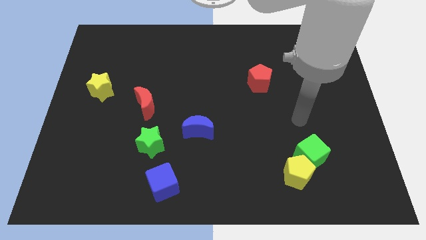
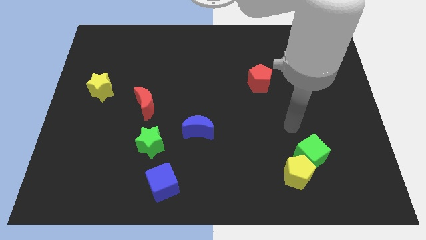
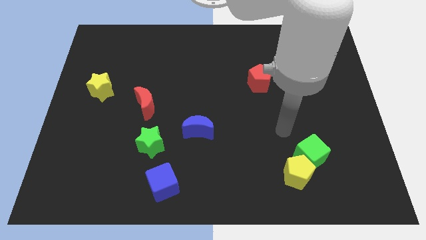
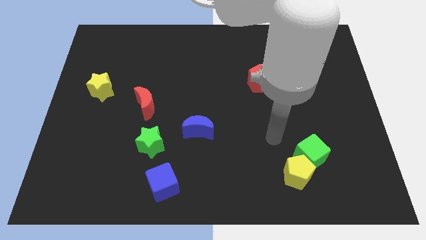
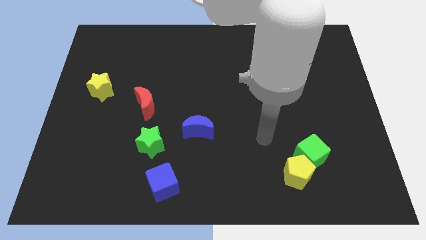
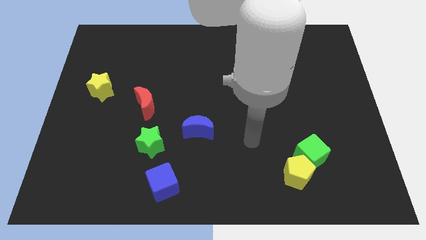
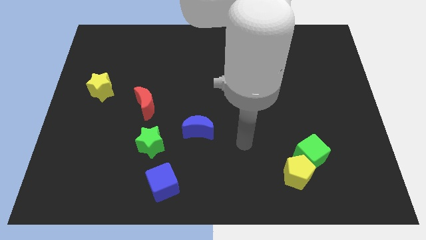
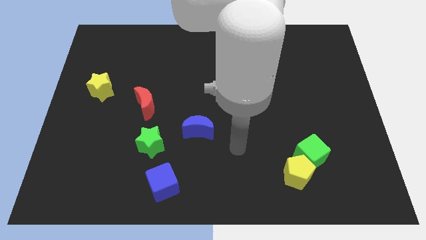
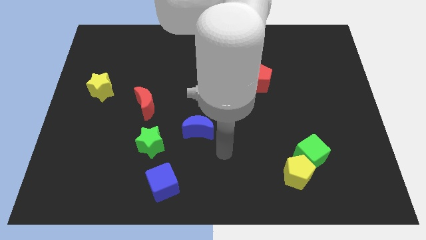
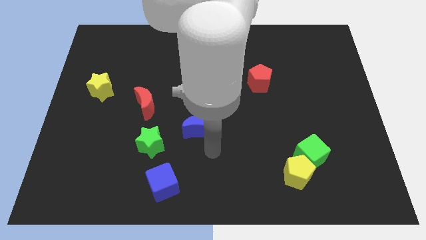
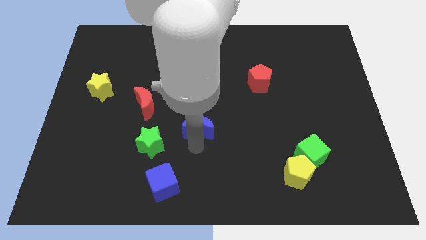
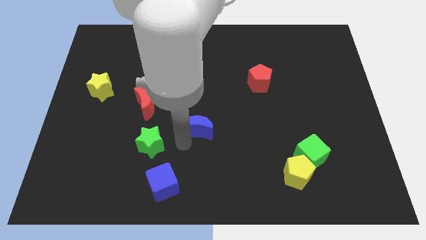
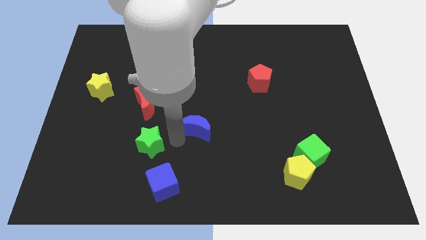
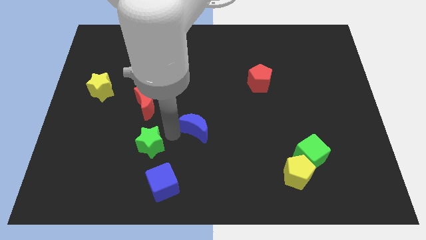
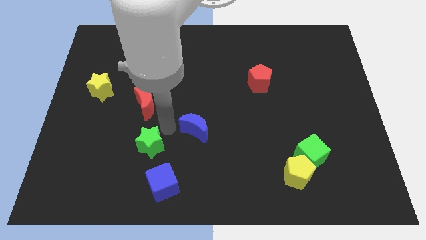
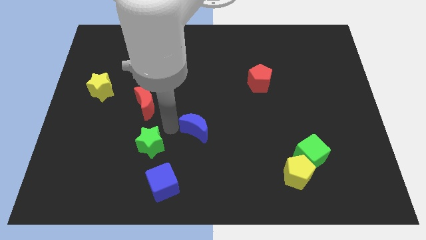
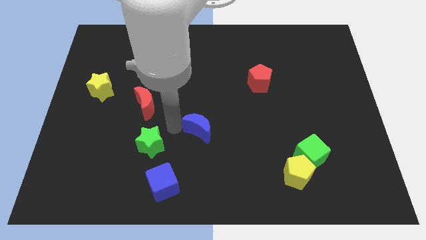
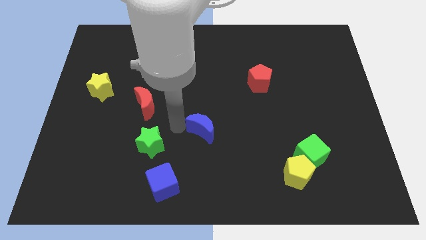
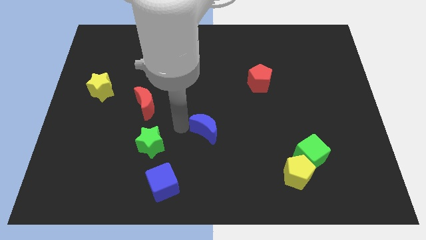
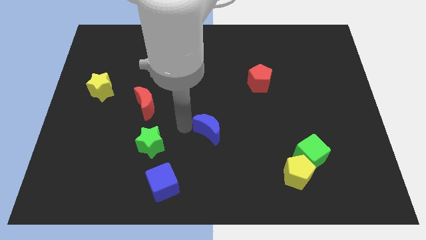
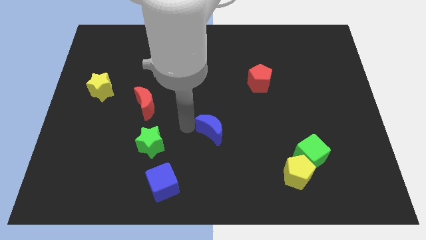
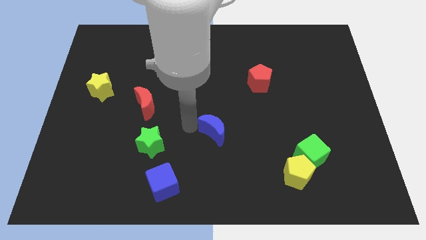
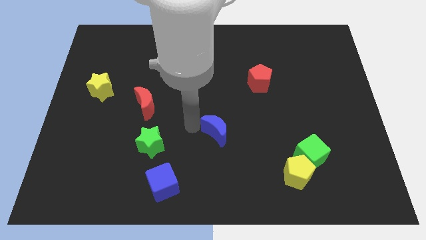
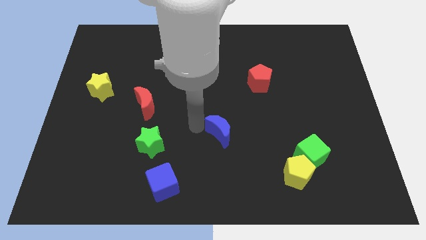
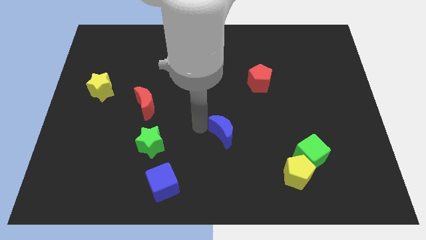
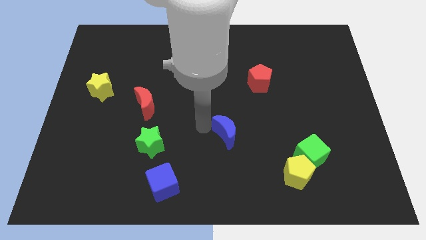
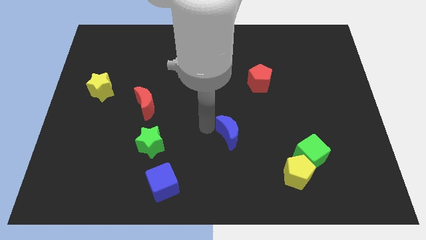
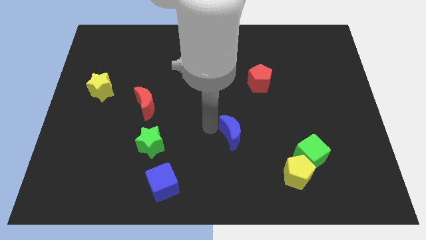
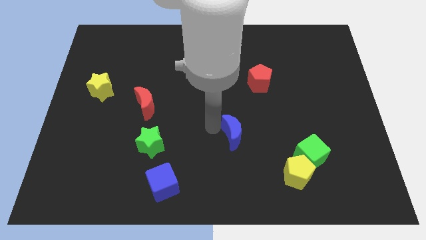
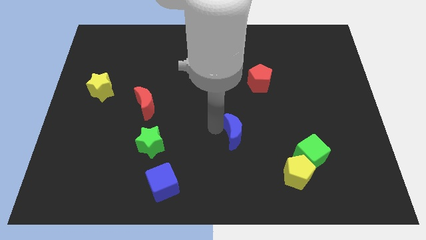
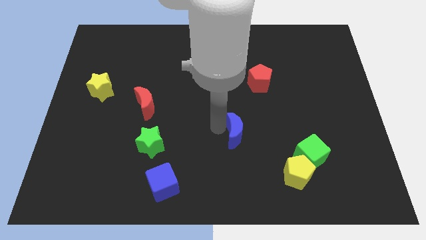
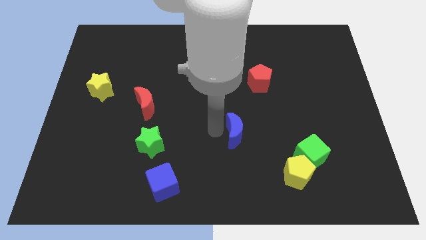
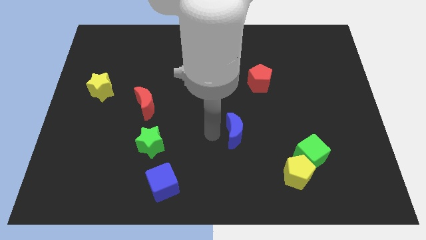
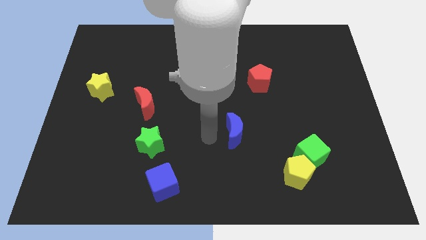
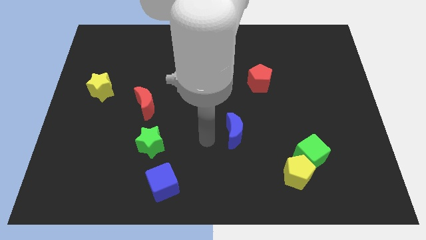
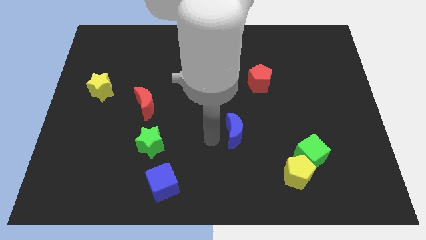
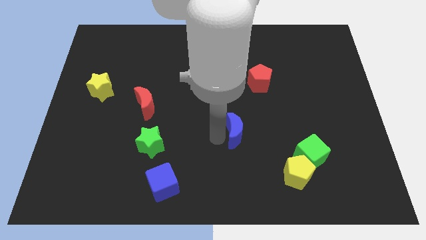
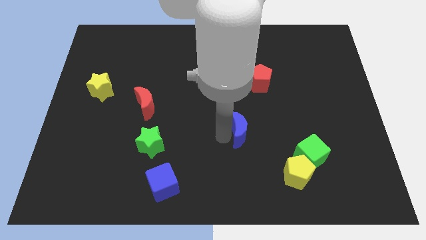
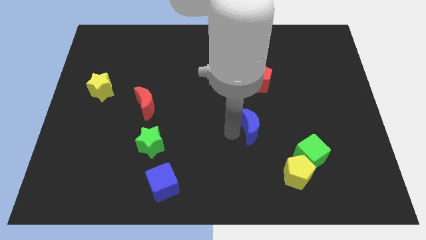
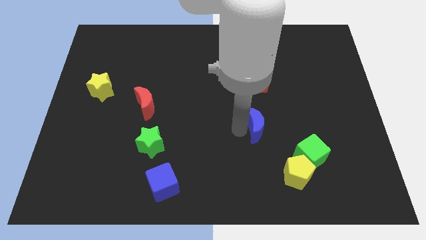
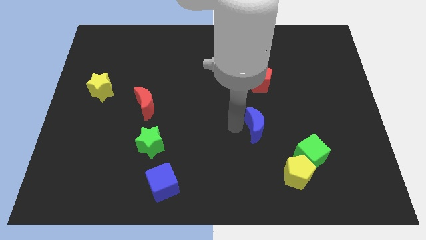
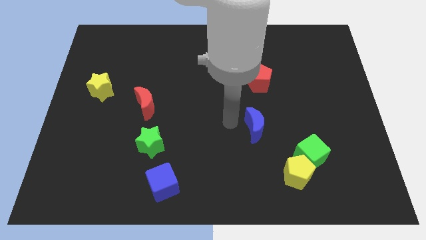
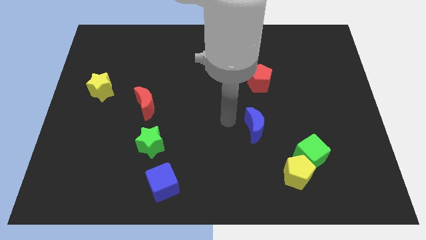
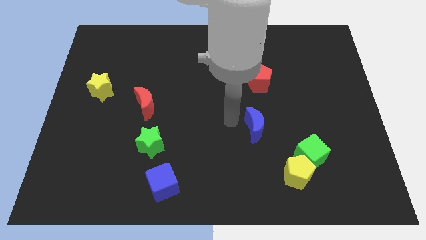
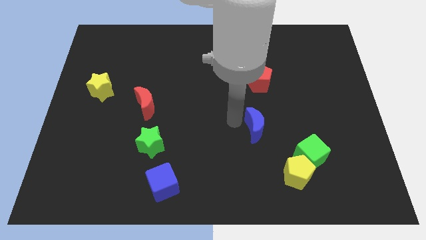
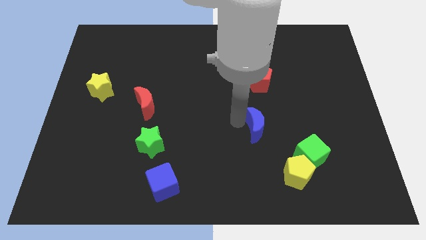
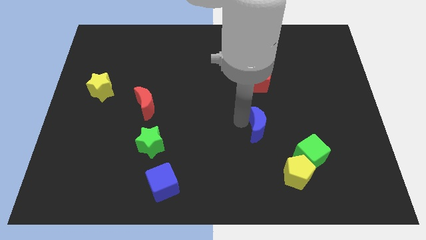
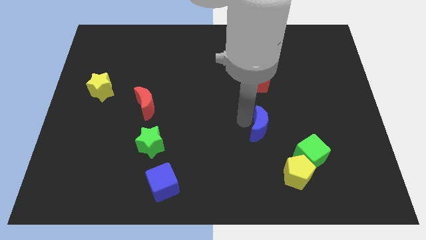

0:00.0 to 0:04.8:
push the blue moon to the top left side of the green cube

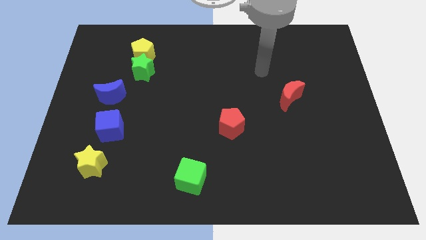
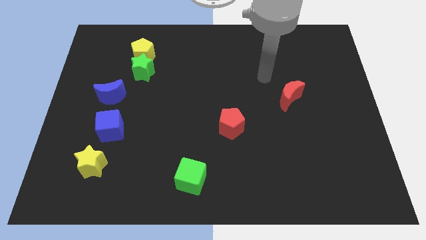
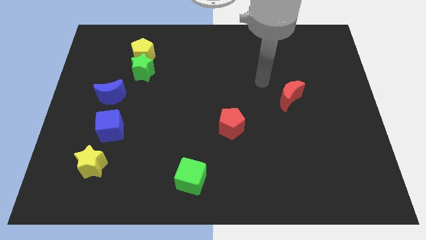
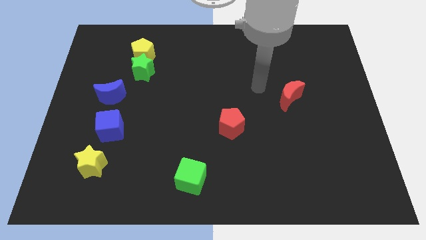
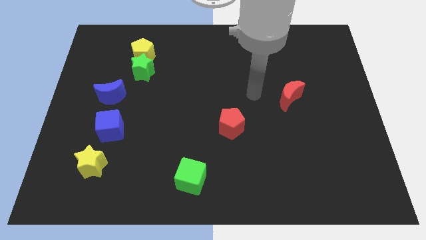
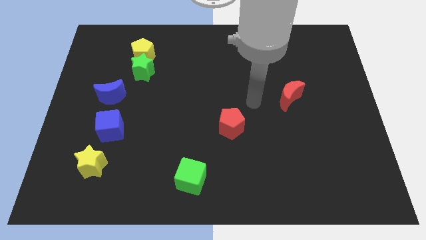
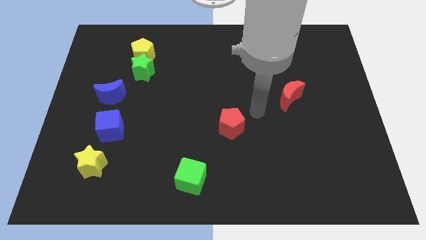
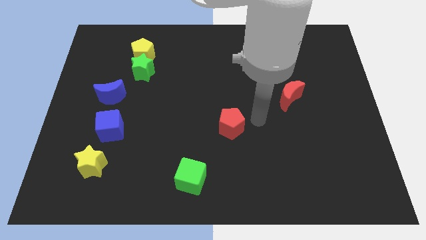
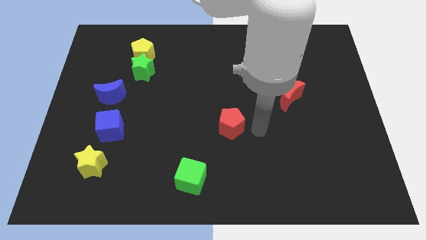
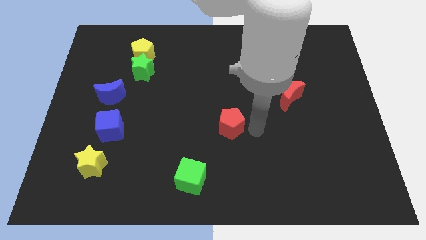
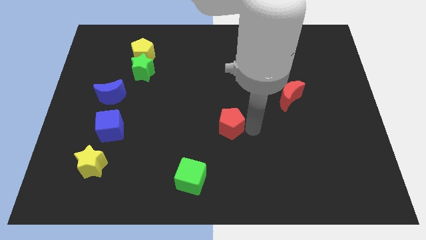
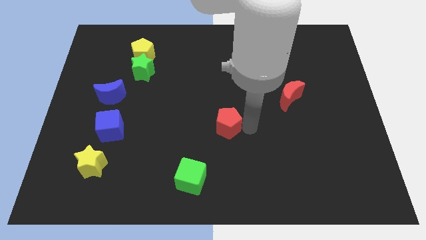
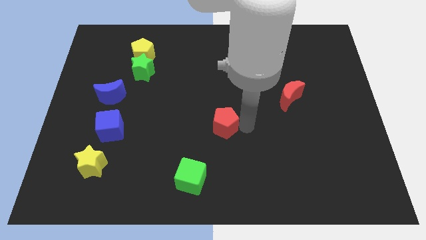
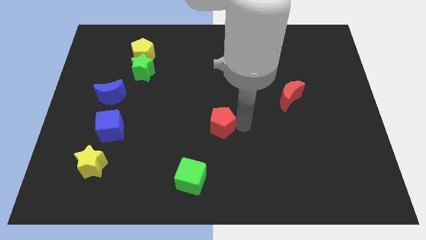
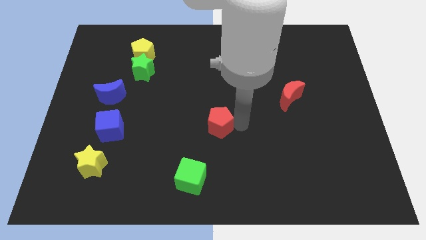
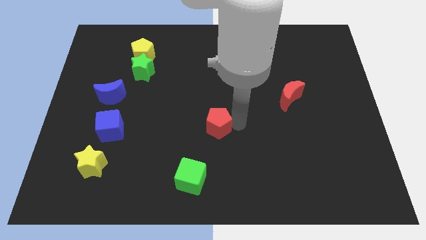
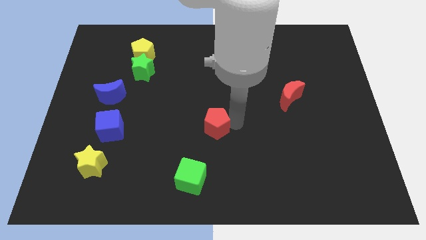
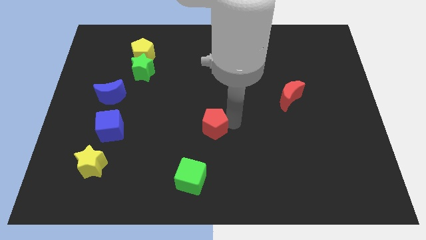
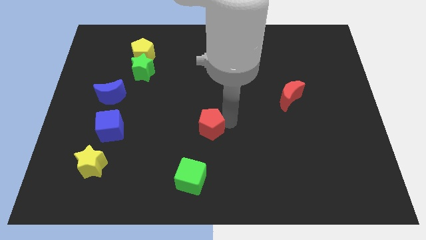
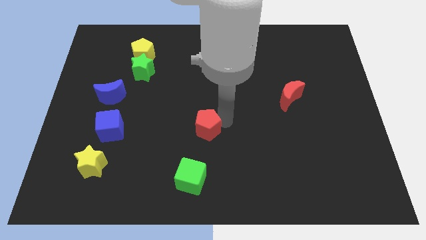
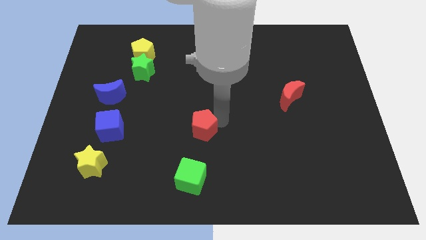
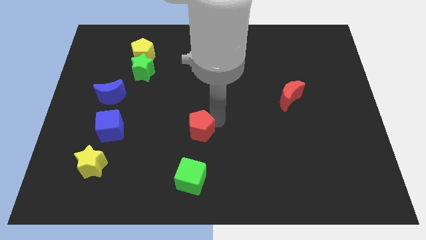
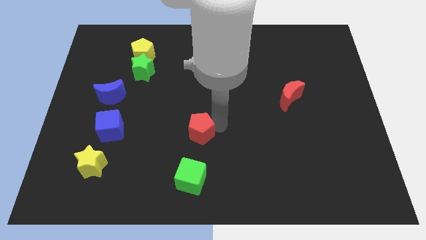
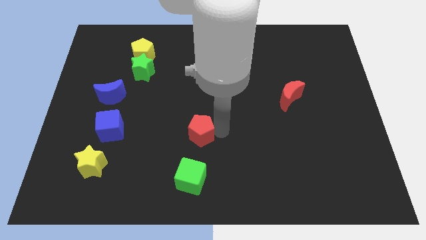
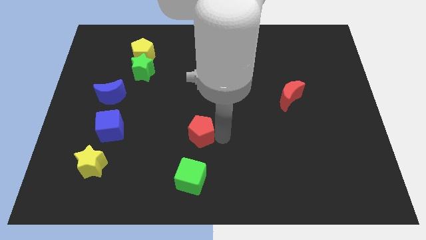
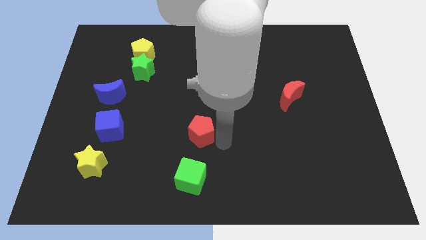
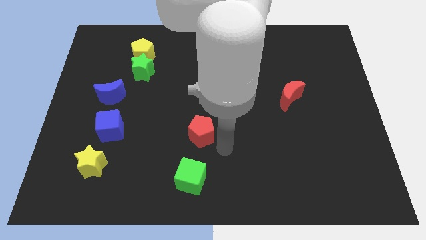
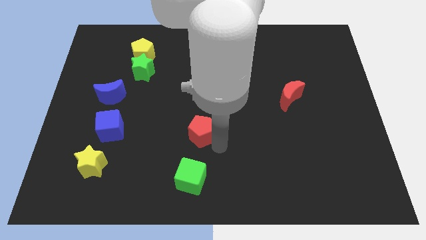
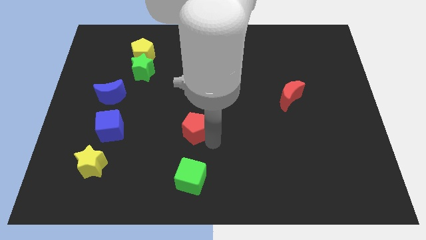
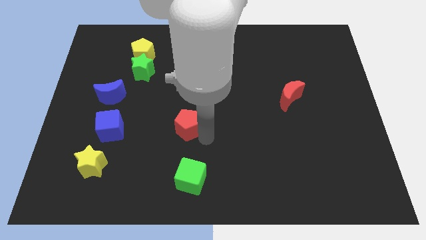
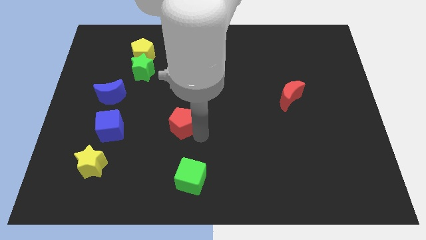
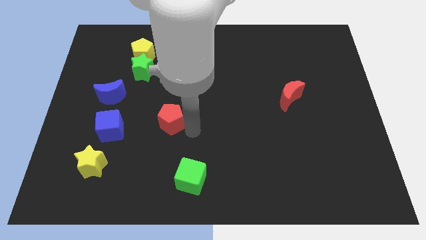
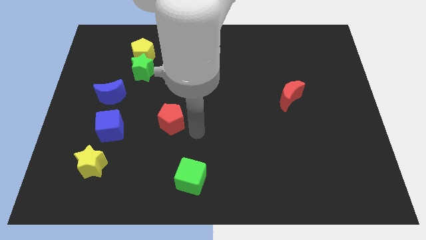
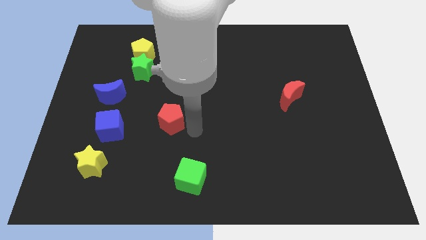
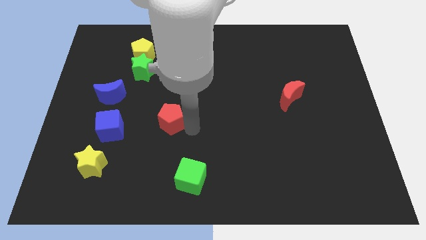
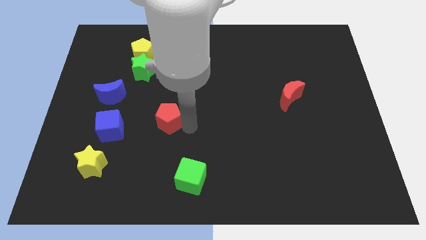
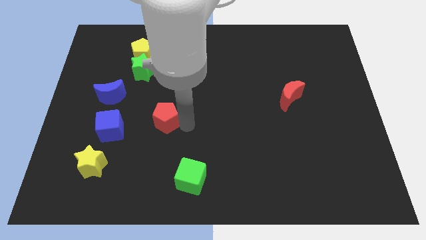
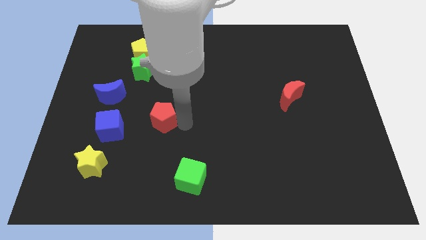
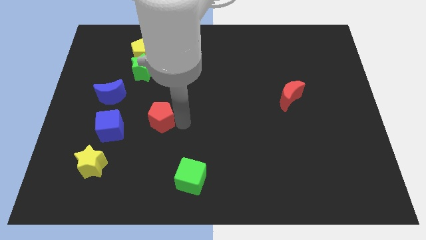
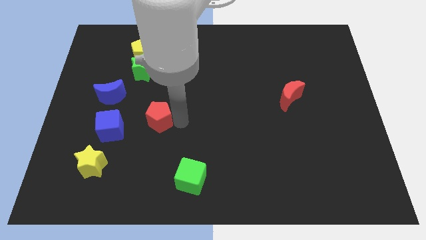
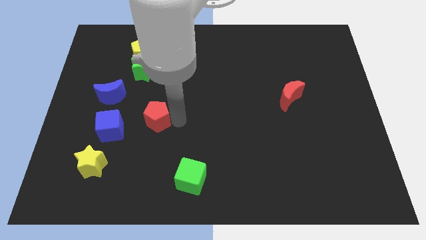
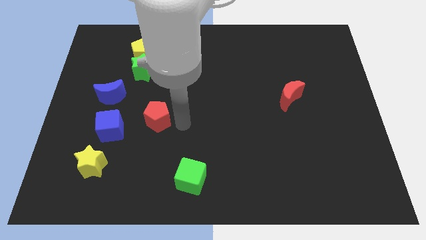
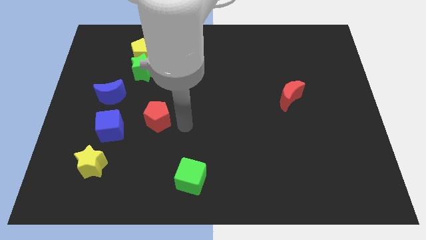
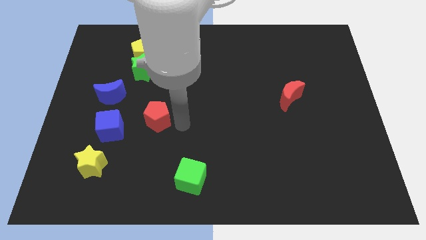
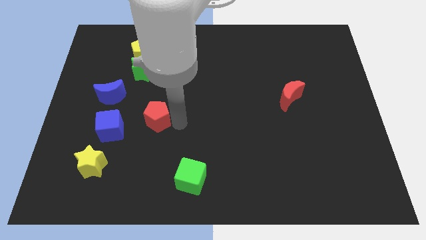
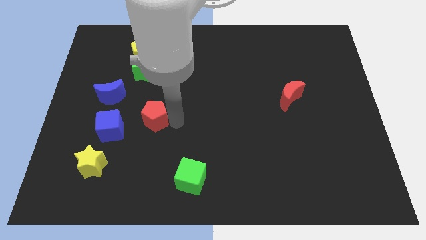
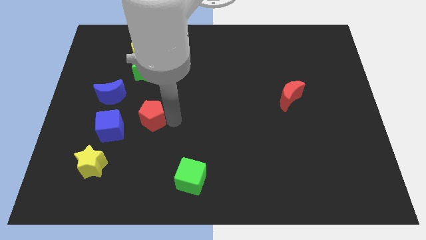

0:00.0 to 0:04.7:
move the red pentagon diagonally down and to the right of the blue moon
